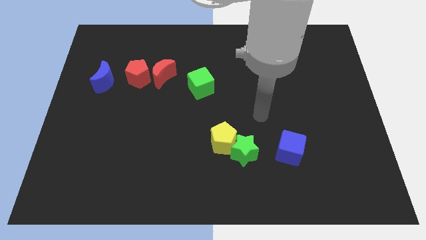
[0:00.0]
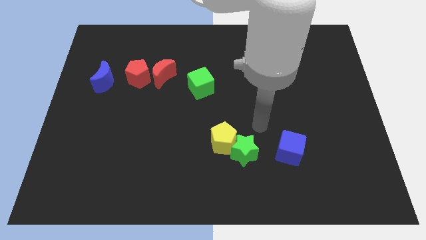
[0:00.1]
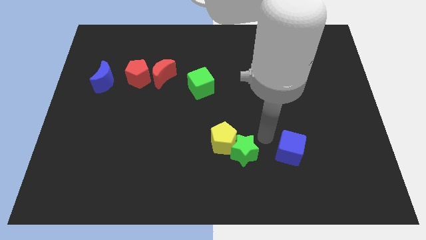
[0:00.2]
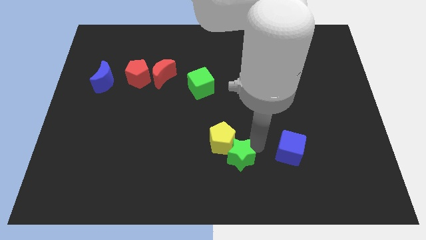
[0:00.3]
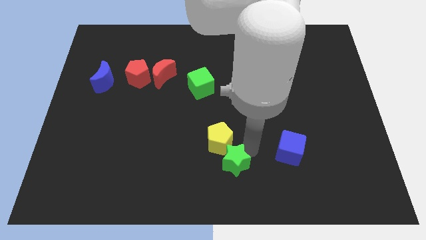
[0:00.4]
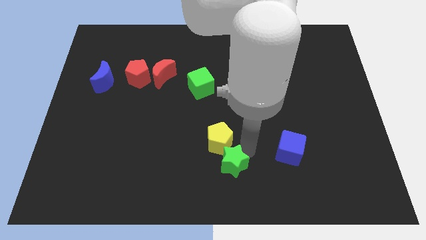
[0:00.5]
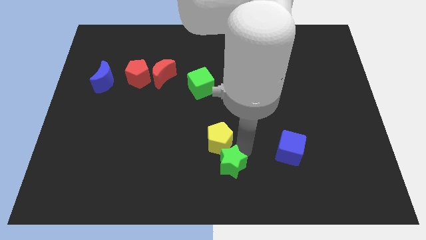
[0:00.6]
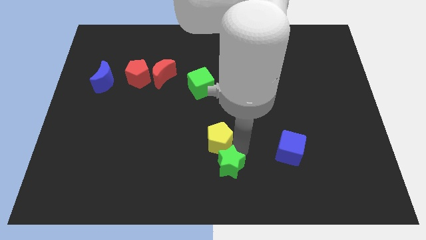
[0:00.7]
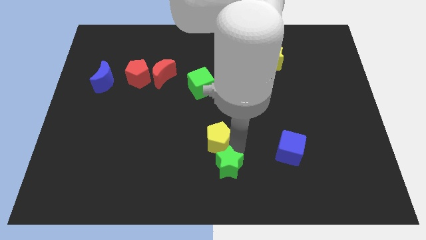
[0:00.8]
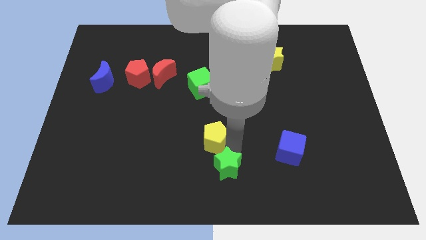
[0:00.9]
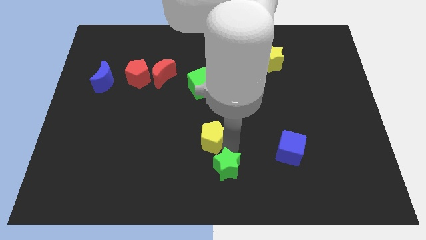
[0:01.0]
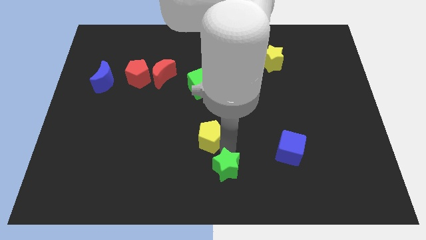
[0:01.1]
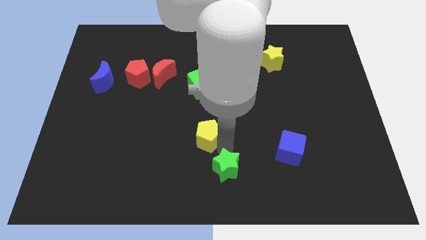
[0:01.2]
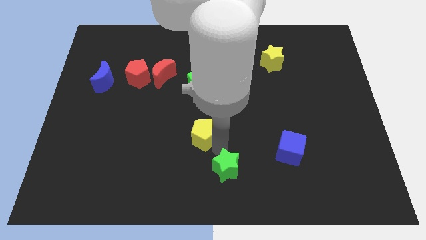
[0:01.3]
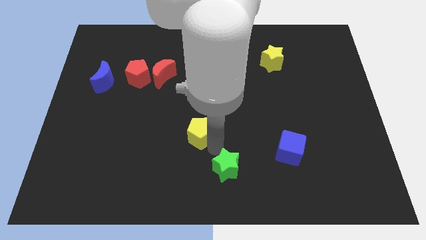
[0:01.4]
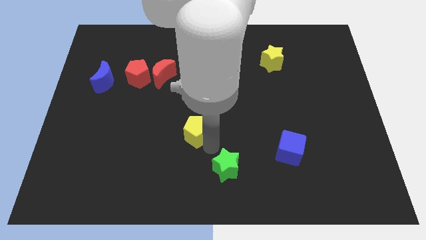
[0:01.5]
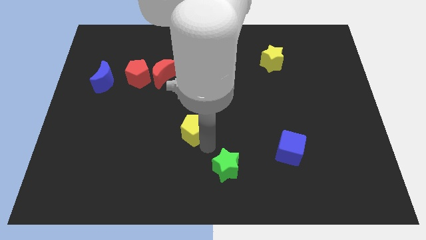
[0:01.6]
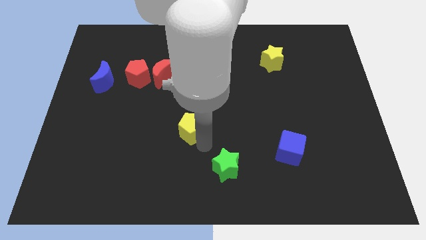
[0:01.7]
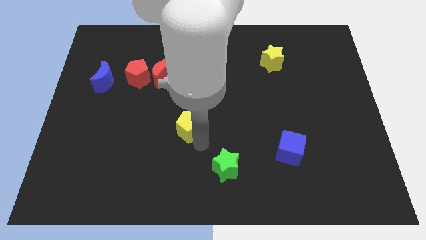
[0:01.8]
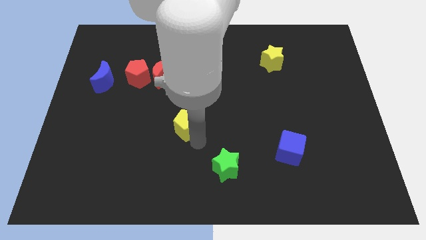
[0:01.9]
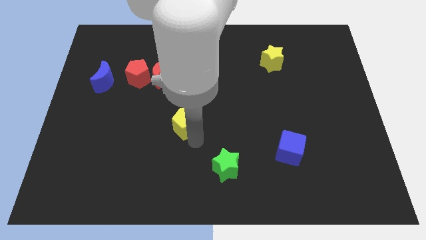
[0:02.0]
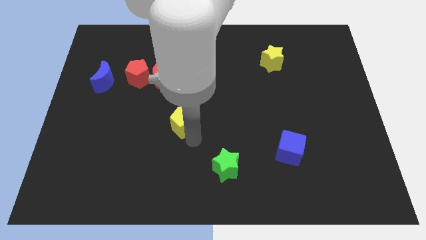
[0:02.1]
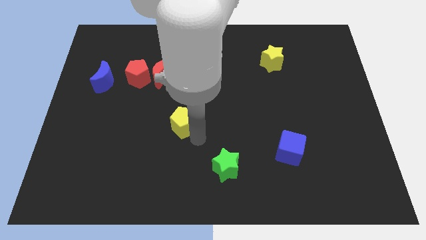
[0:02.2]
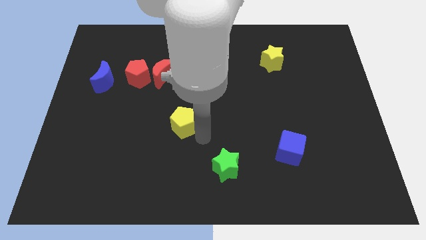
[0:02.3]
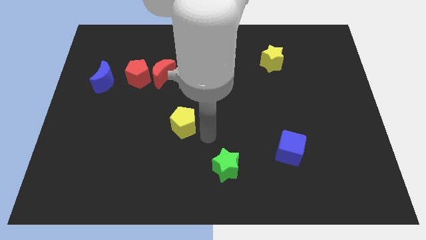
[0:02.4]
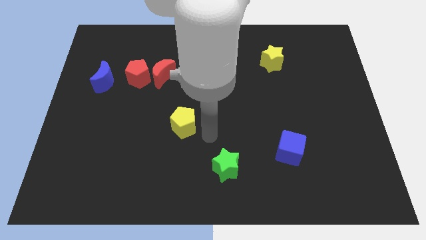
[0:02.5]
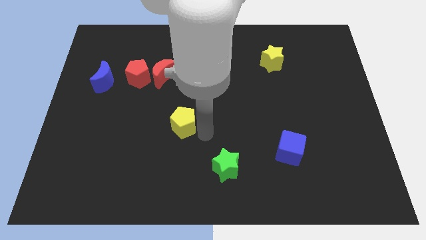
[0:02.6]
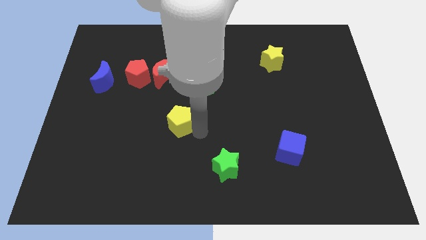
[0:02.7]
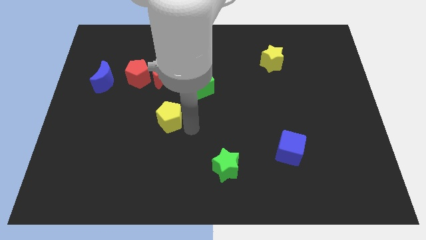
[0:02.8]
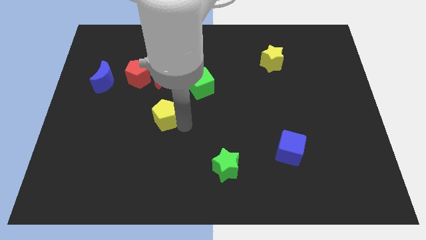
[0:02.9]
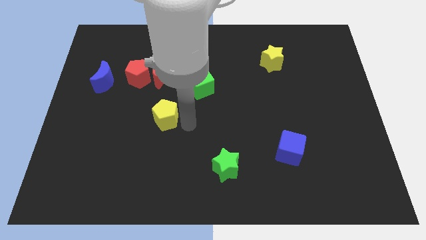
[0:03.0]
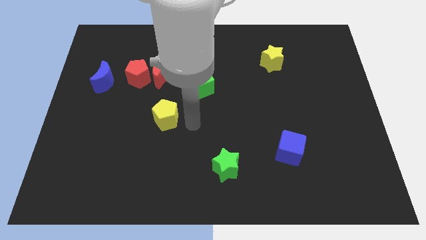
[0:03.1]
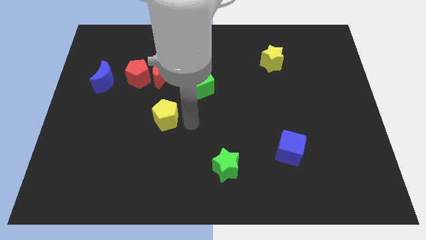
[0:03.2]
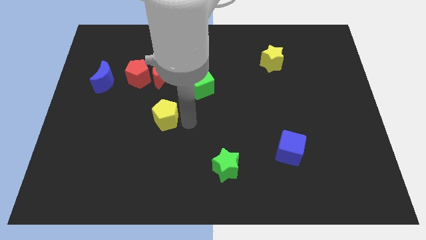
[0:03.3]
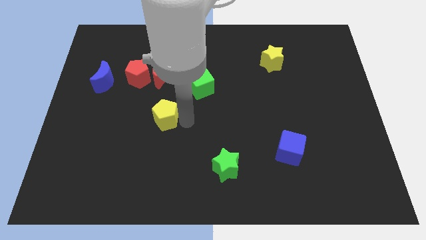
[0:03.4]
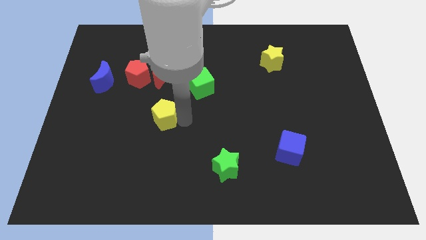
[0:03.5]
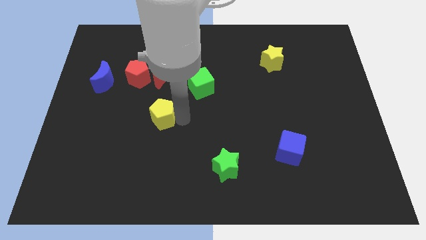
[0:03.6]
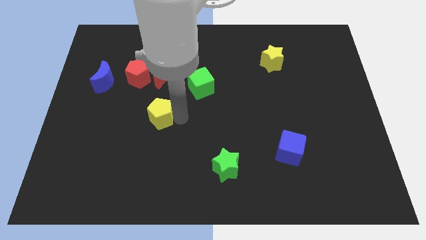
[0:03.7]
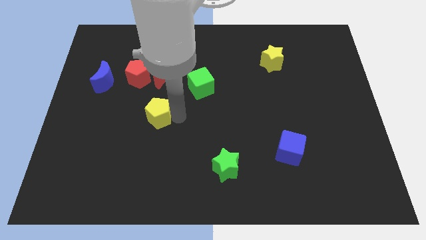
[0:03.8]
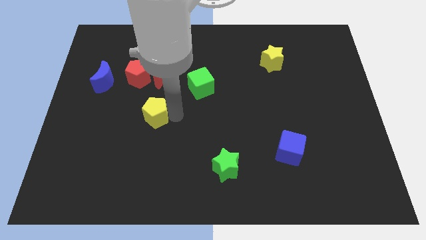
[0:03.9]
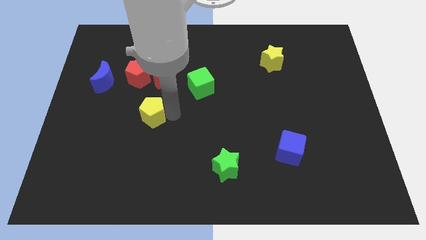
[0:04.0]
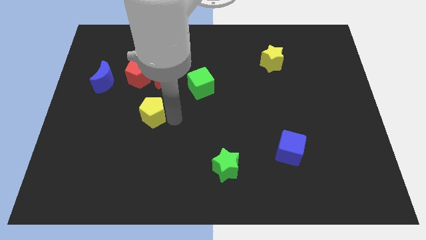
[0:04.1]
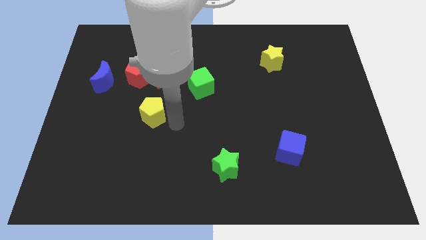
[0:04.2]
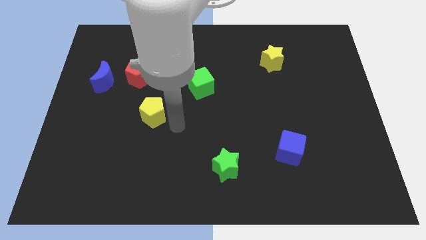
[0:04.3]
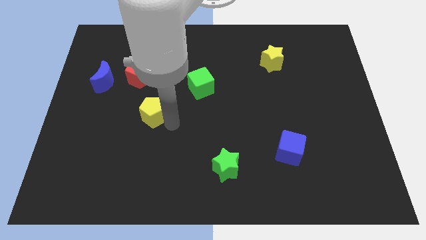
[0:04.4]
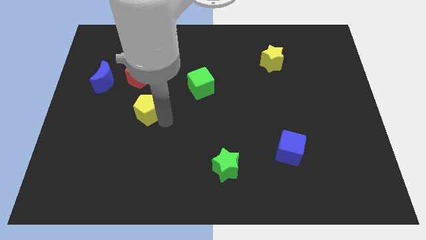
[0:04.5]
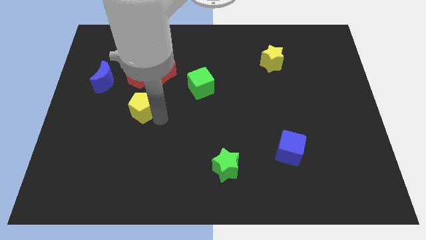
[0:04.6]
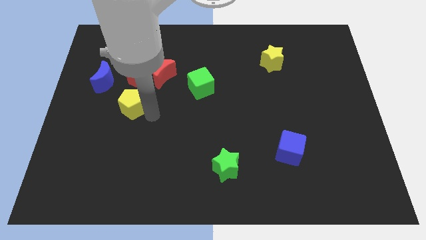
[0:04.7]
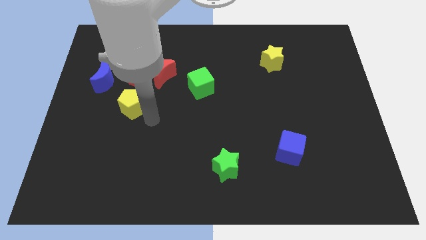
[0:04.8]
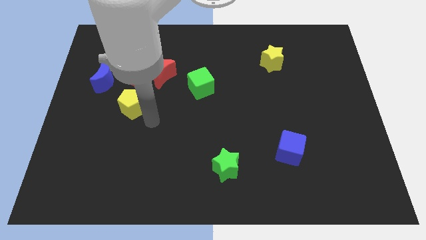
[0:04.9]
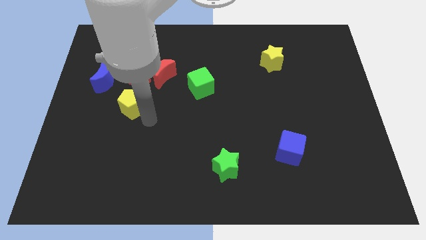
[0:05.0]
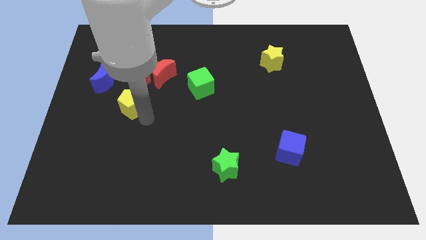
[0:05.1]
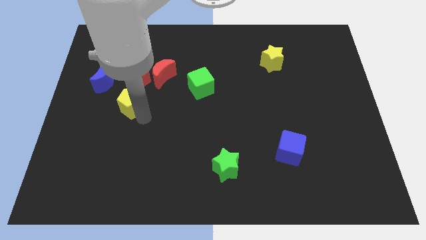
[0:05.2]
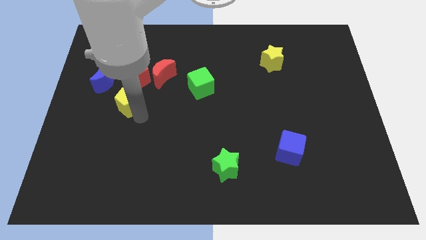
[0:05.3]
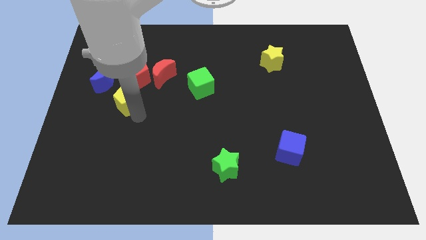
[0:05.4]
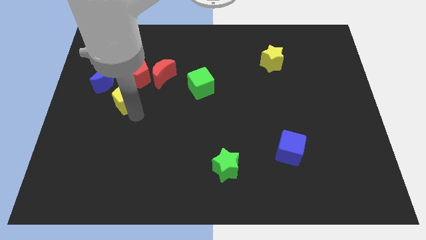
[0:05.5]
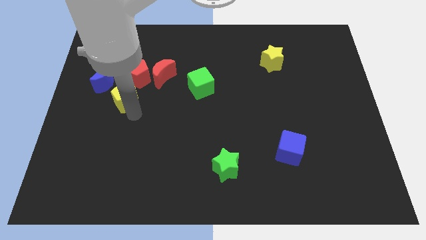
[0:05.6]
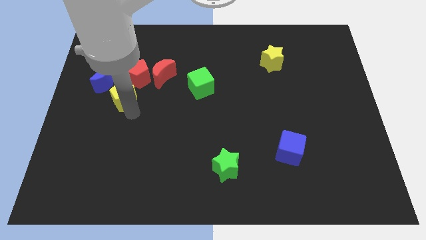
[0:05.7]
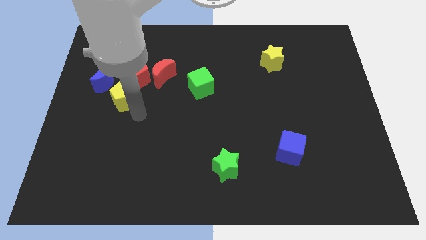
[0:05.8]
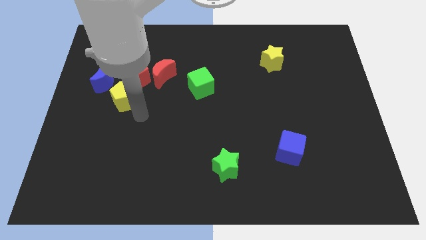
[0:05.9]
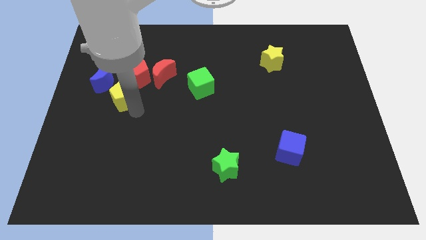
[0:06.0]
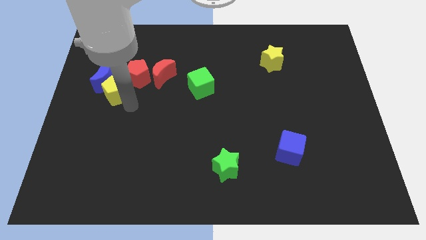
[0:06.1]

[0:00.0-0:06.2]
move the yellow pentagon next to the blue moon

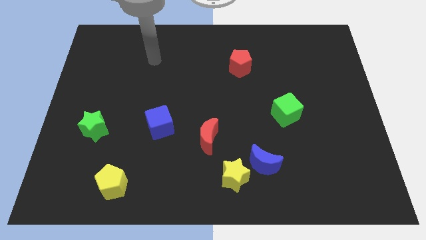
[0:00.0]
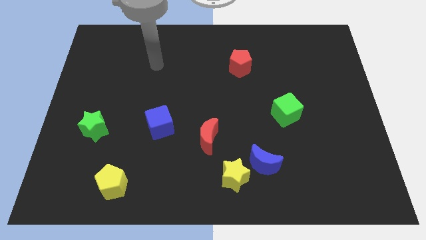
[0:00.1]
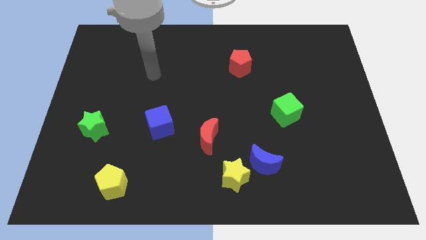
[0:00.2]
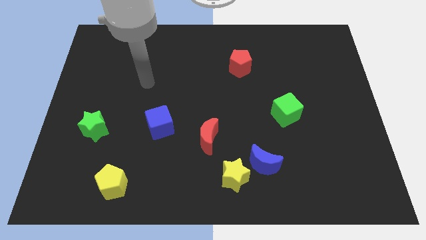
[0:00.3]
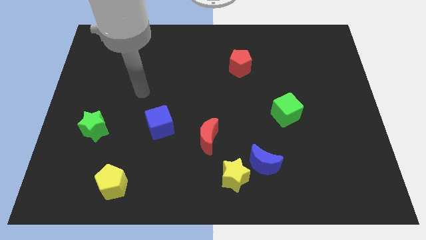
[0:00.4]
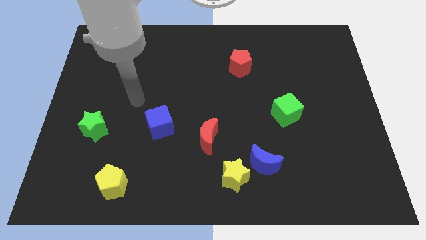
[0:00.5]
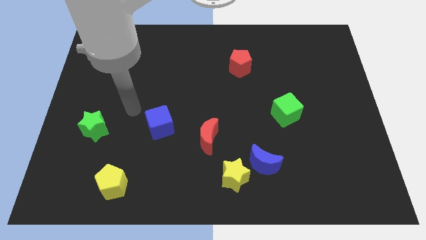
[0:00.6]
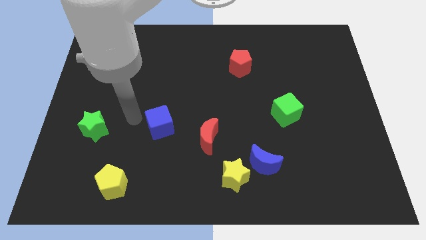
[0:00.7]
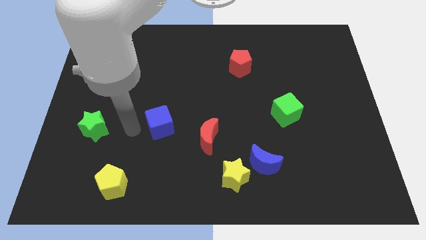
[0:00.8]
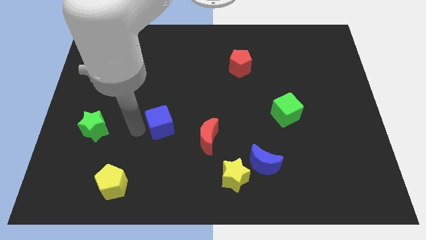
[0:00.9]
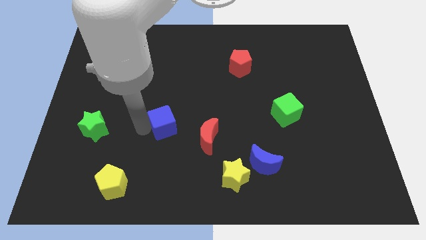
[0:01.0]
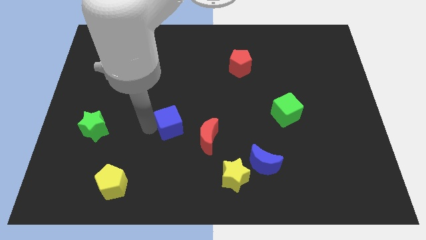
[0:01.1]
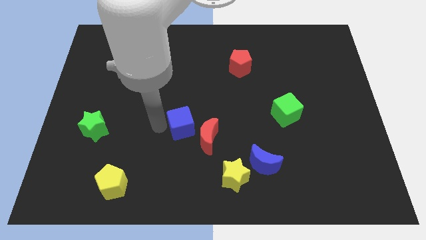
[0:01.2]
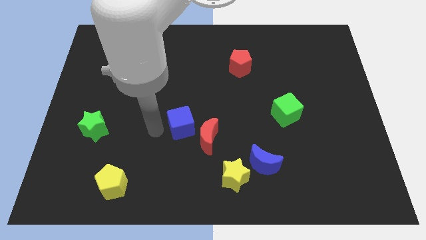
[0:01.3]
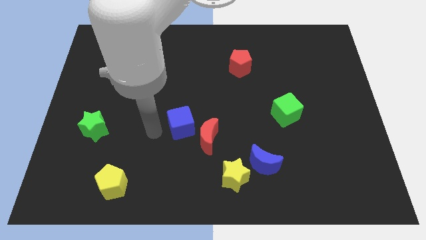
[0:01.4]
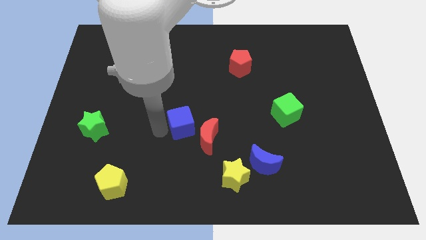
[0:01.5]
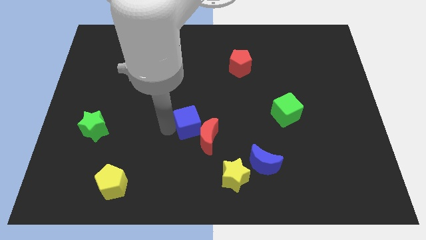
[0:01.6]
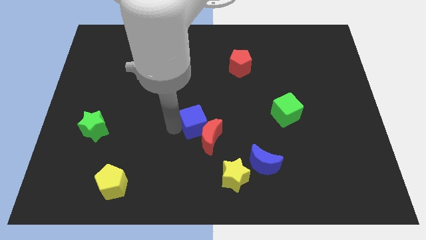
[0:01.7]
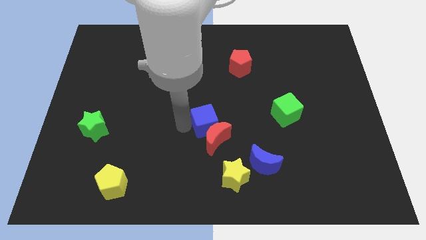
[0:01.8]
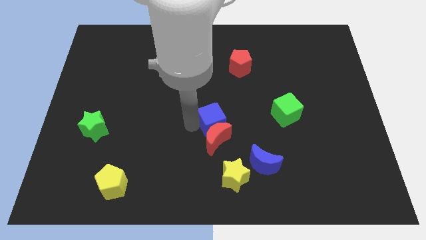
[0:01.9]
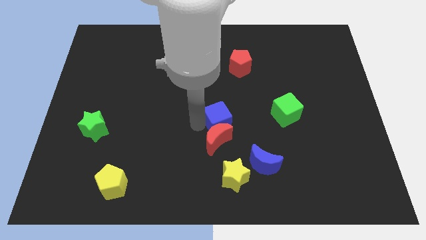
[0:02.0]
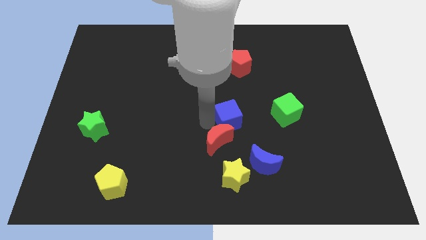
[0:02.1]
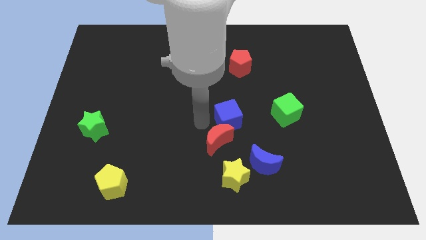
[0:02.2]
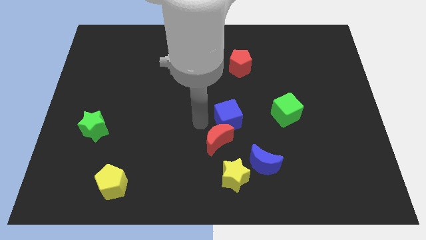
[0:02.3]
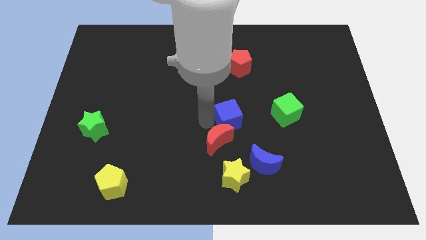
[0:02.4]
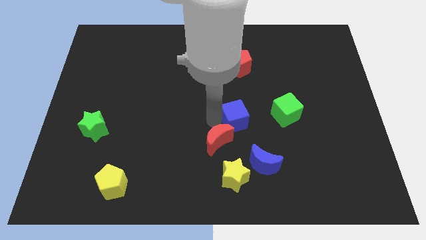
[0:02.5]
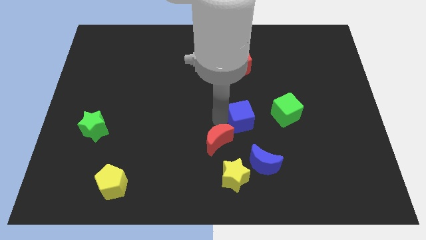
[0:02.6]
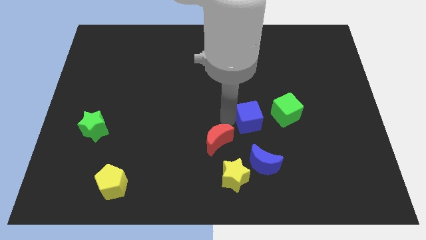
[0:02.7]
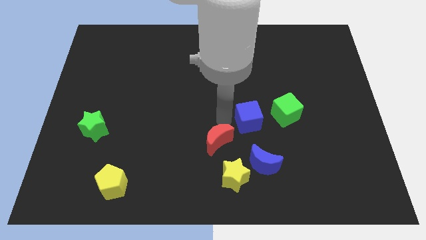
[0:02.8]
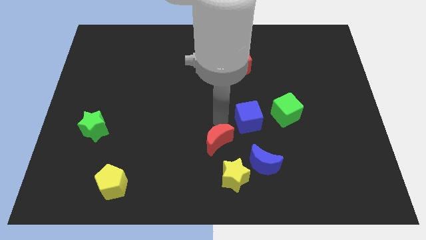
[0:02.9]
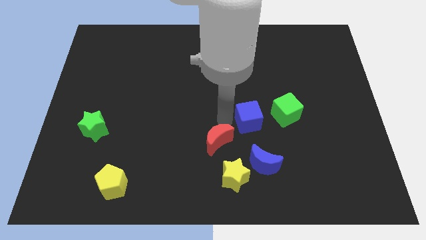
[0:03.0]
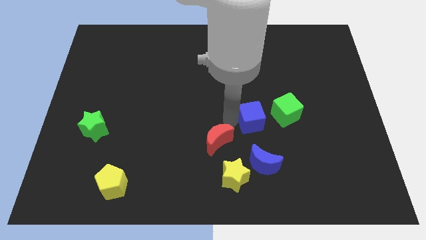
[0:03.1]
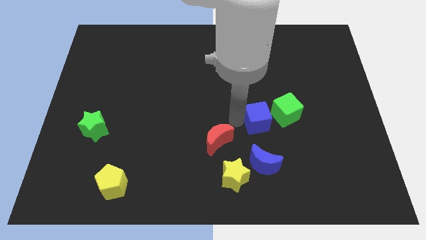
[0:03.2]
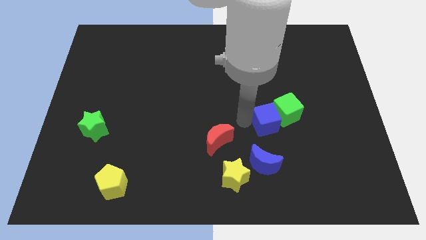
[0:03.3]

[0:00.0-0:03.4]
push the blue cube next to the green cube
